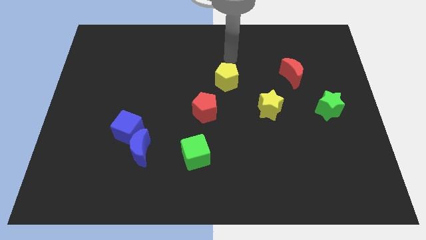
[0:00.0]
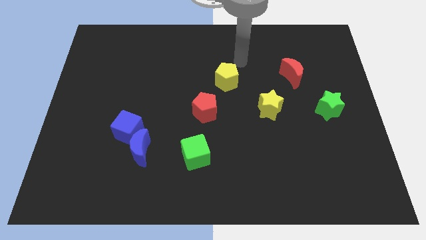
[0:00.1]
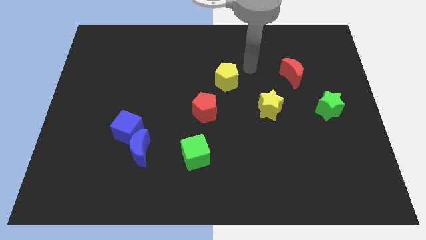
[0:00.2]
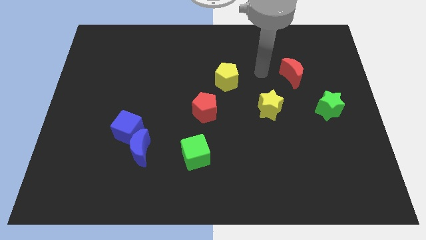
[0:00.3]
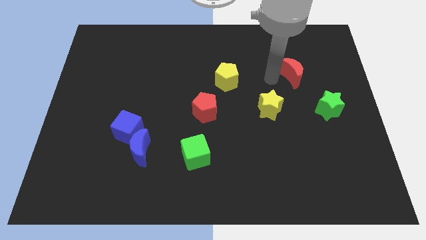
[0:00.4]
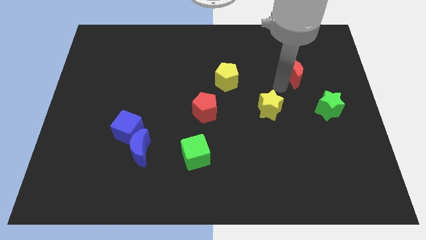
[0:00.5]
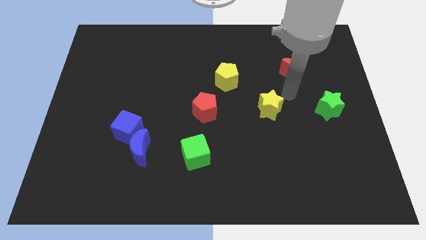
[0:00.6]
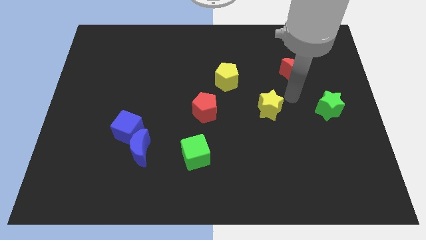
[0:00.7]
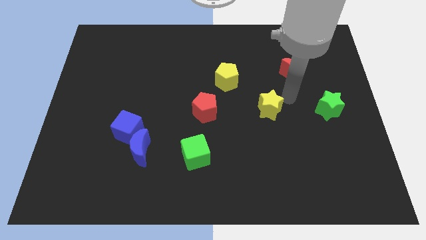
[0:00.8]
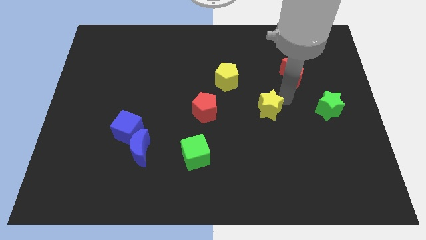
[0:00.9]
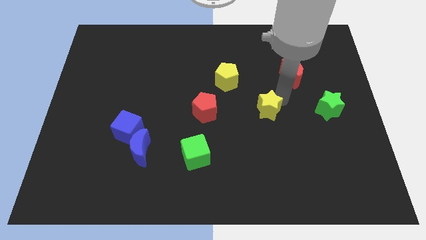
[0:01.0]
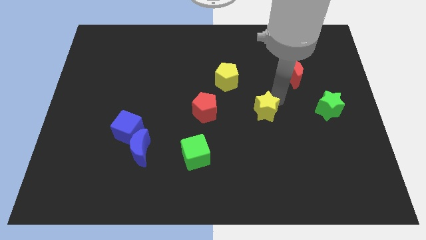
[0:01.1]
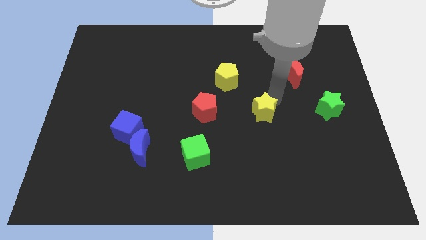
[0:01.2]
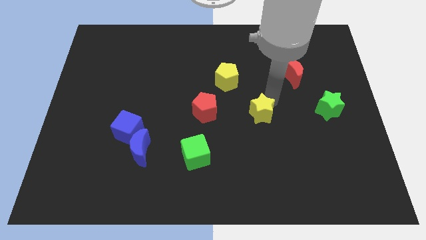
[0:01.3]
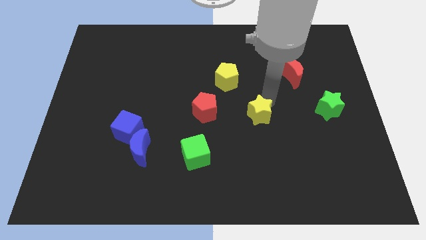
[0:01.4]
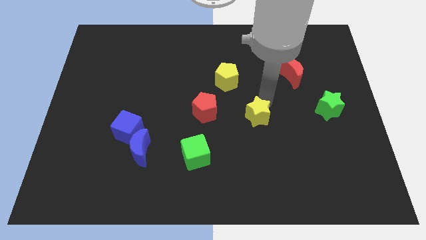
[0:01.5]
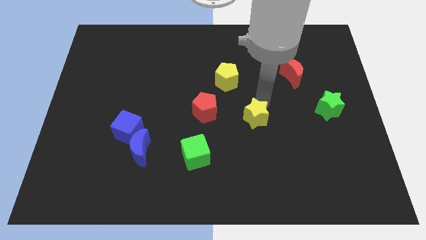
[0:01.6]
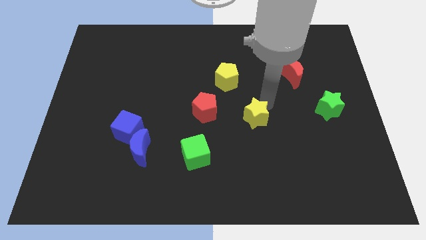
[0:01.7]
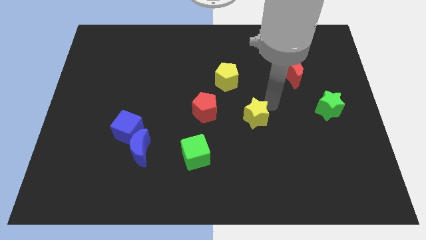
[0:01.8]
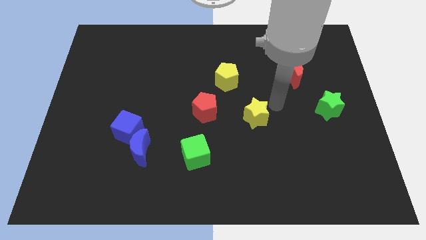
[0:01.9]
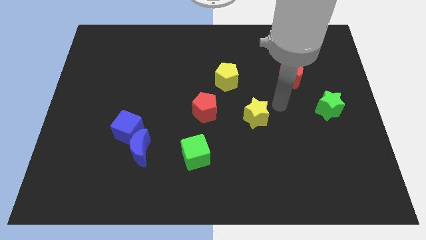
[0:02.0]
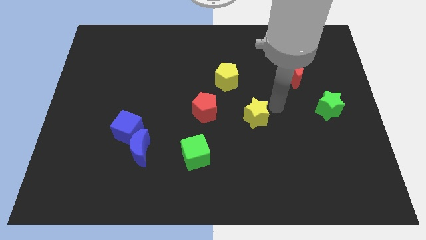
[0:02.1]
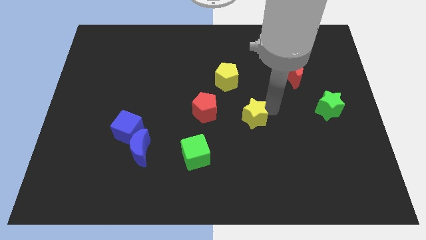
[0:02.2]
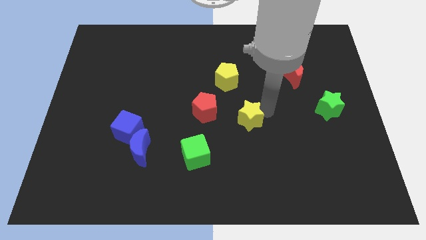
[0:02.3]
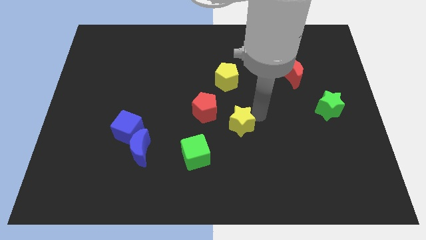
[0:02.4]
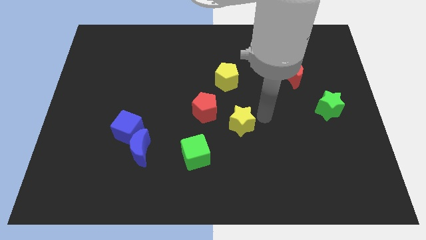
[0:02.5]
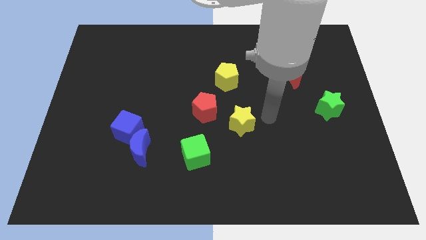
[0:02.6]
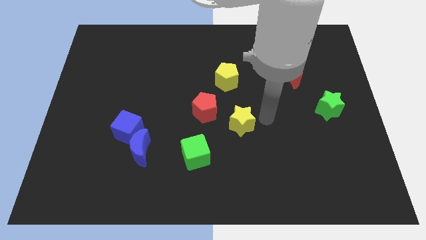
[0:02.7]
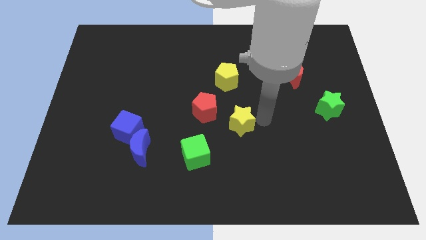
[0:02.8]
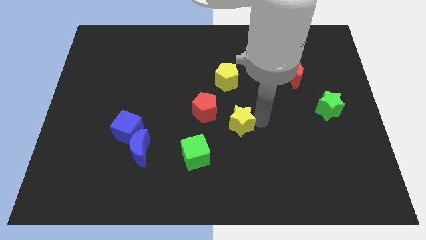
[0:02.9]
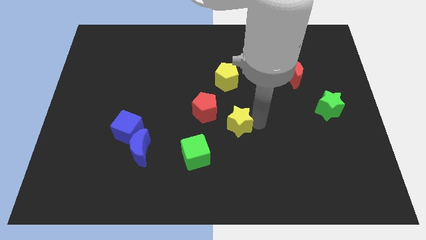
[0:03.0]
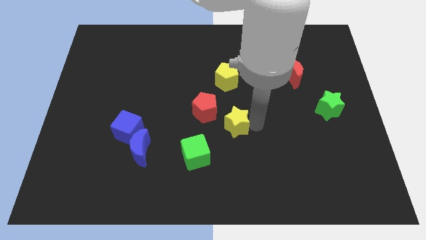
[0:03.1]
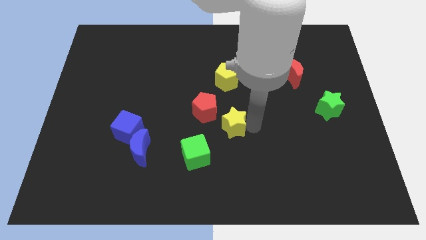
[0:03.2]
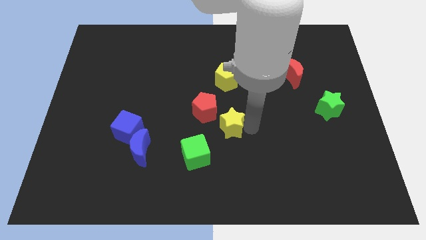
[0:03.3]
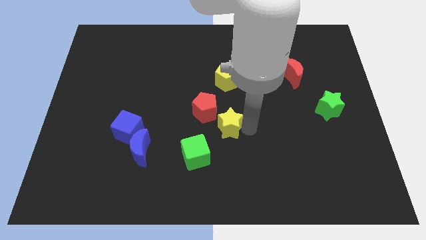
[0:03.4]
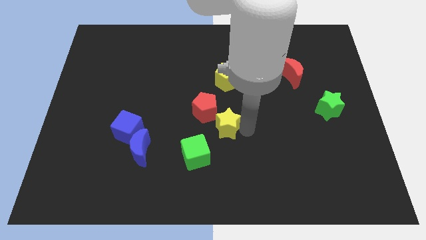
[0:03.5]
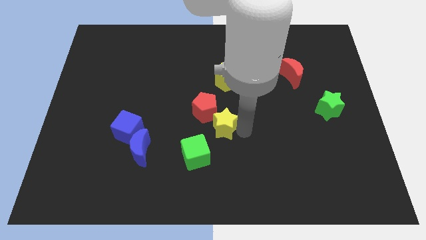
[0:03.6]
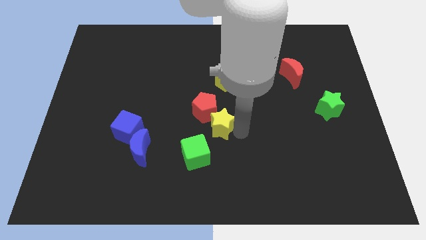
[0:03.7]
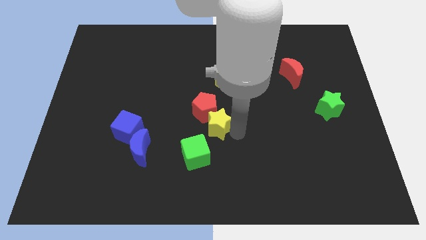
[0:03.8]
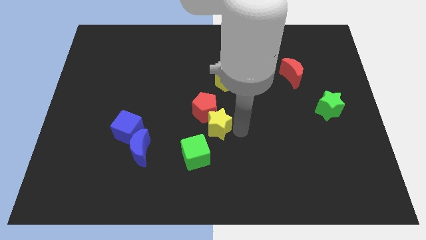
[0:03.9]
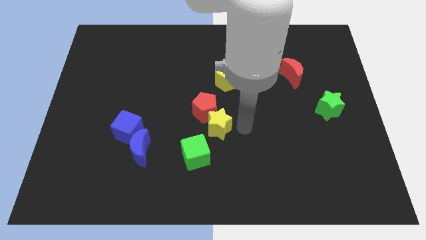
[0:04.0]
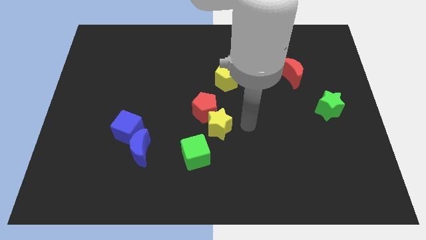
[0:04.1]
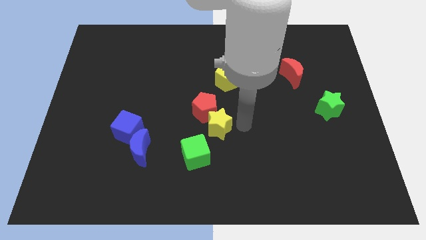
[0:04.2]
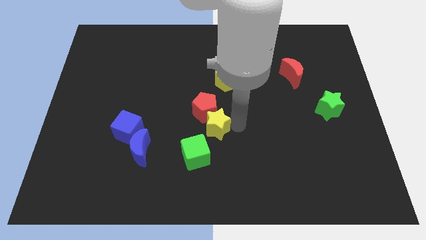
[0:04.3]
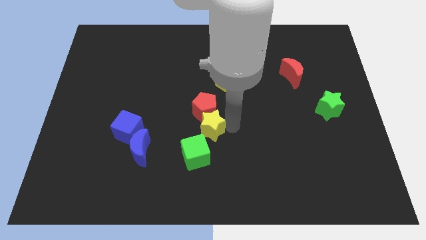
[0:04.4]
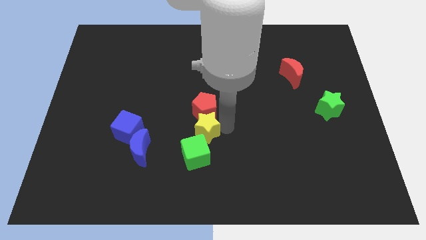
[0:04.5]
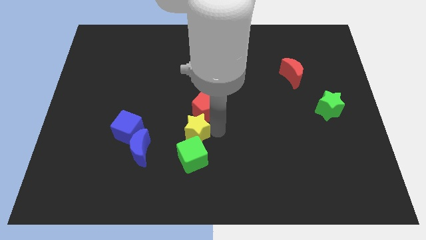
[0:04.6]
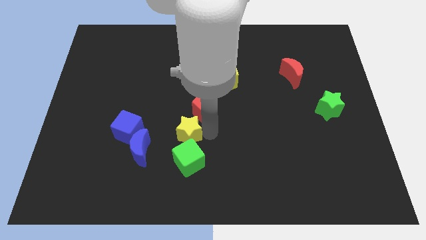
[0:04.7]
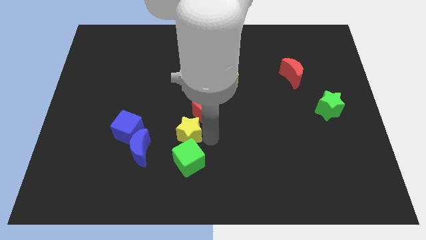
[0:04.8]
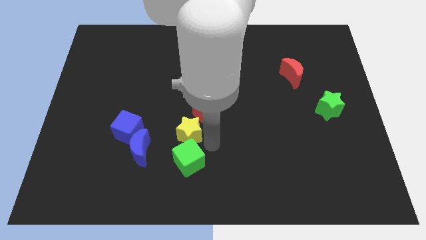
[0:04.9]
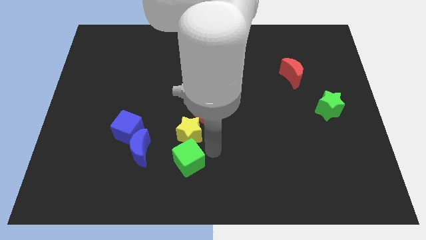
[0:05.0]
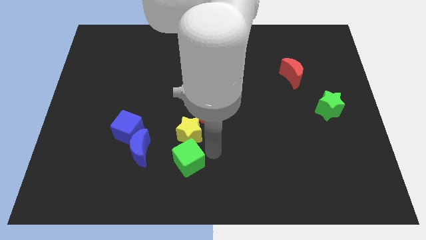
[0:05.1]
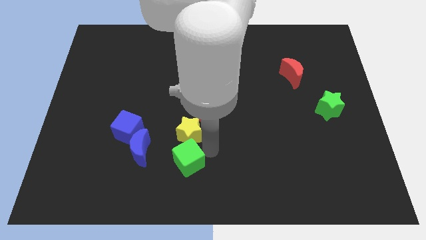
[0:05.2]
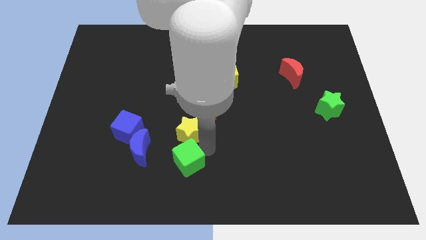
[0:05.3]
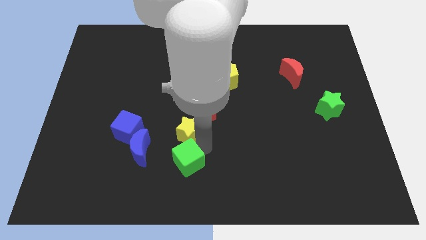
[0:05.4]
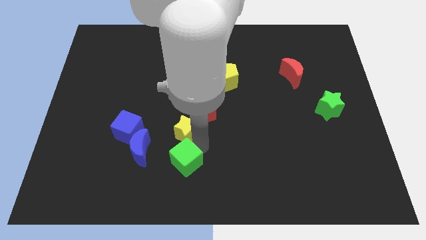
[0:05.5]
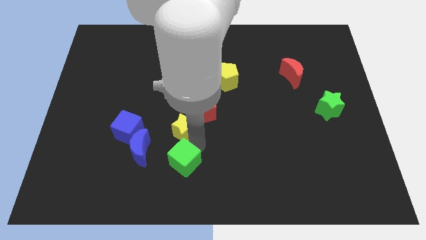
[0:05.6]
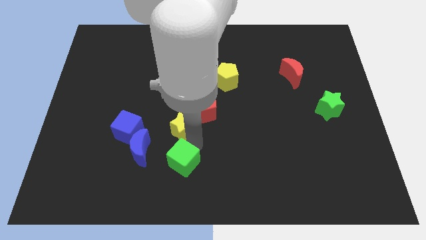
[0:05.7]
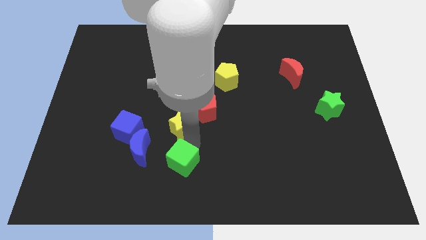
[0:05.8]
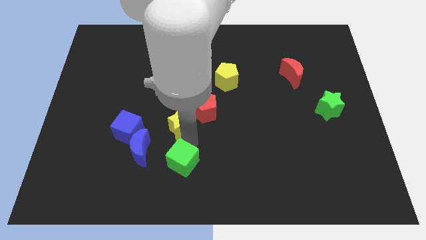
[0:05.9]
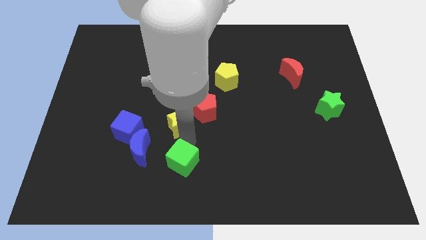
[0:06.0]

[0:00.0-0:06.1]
slide the yellow star left

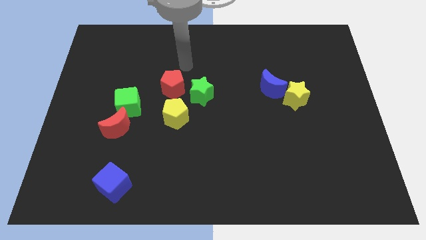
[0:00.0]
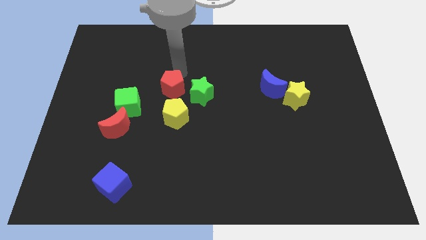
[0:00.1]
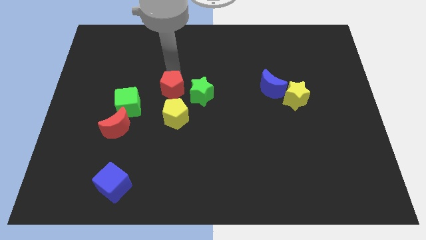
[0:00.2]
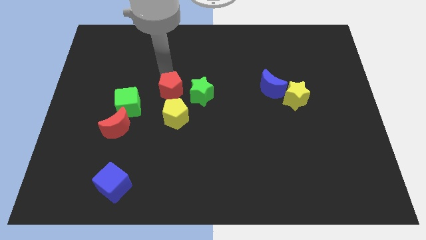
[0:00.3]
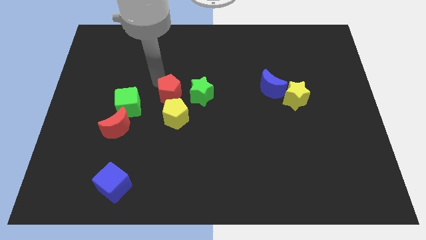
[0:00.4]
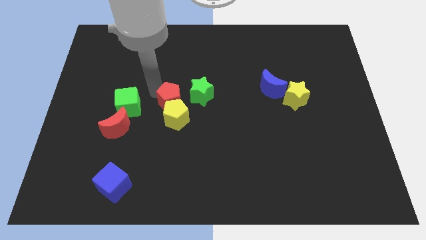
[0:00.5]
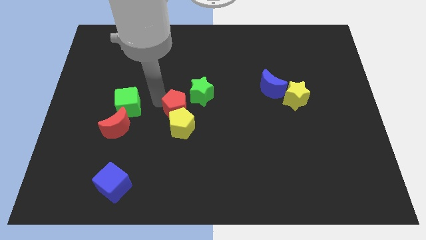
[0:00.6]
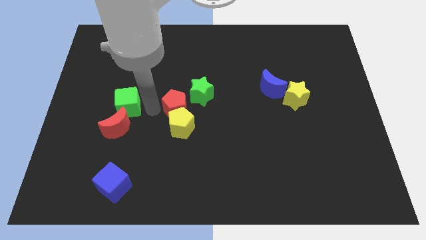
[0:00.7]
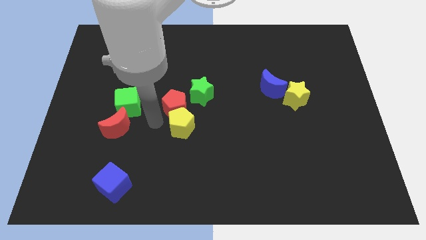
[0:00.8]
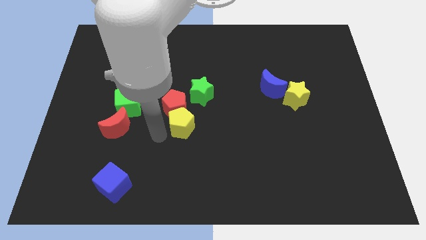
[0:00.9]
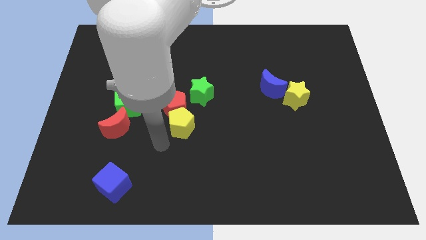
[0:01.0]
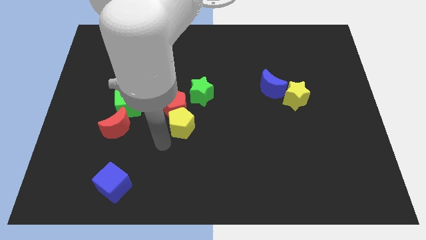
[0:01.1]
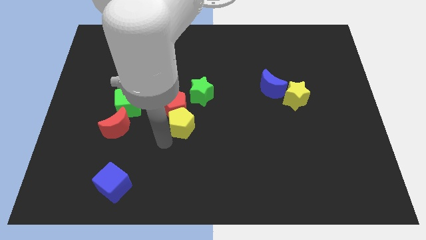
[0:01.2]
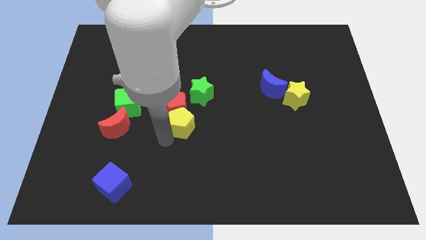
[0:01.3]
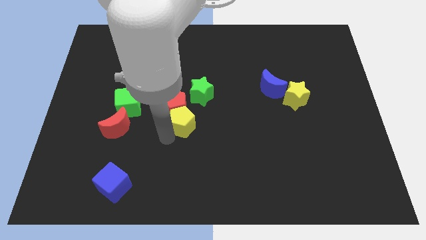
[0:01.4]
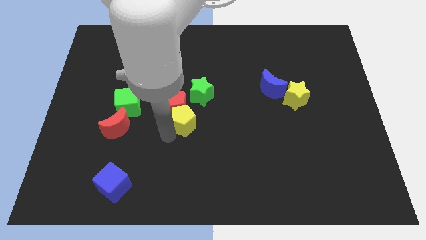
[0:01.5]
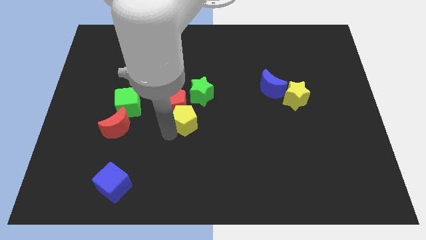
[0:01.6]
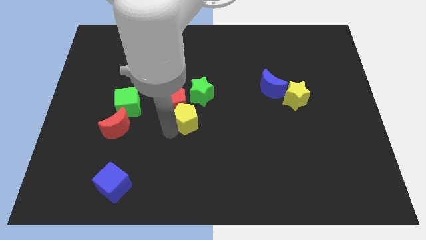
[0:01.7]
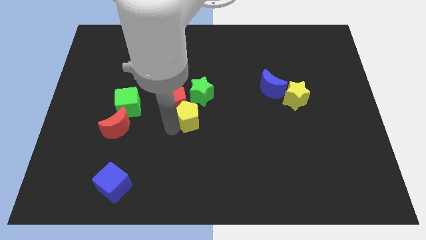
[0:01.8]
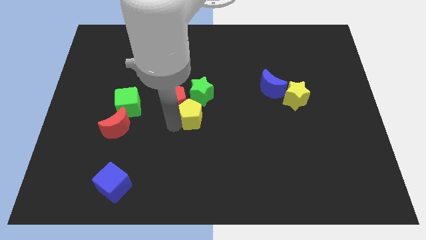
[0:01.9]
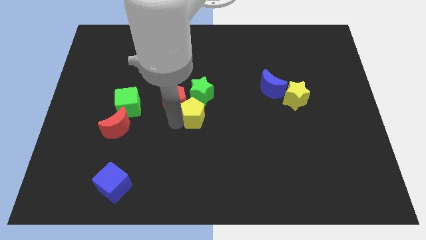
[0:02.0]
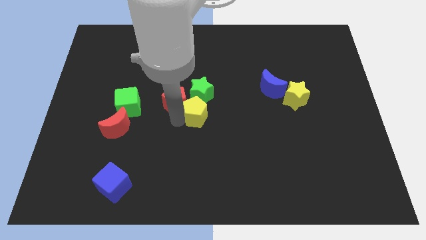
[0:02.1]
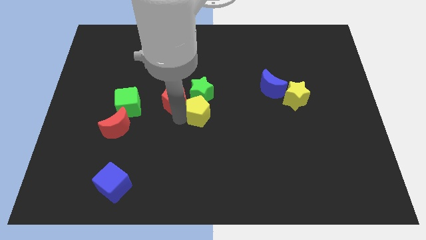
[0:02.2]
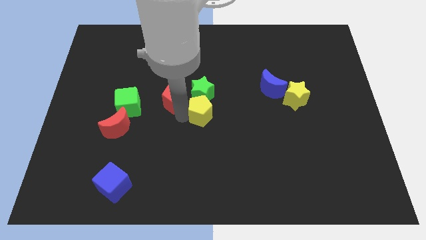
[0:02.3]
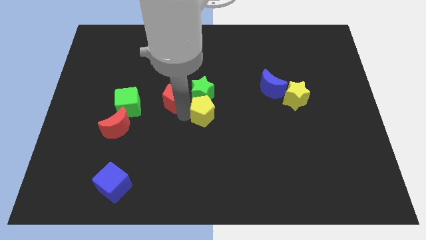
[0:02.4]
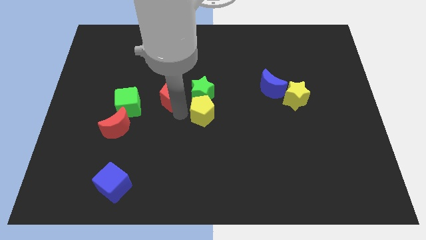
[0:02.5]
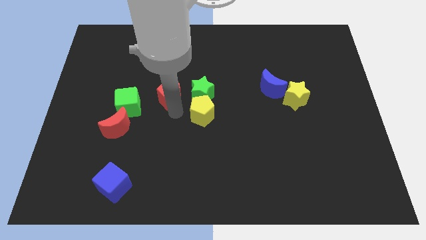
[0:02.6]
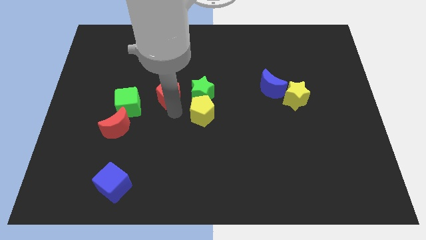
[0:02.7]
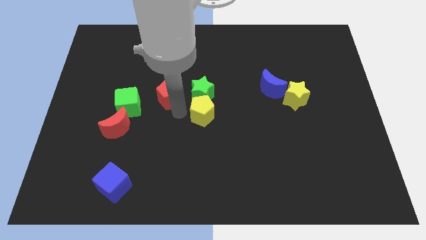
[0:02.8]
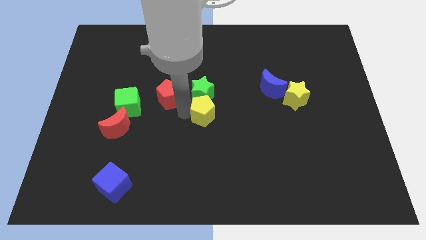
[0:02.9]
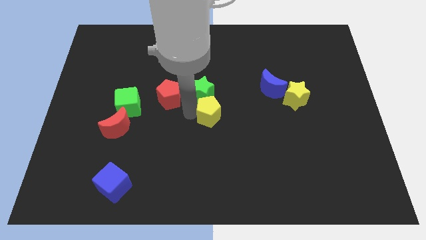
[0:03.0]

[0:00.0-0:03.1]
push the yellow pentagon somewhat right
